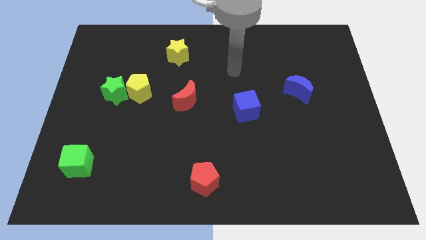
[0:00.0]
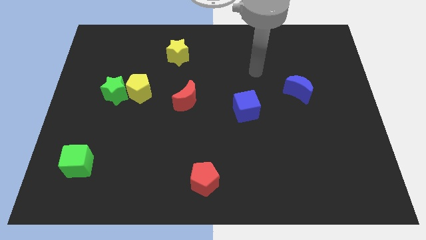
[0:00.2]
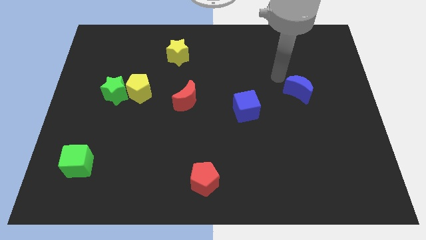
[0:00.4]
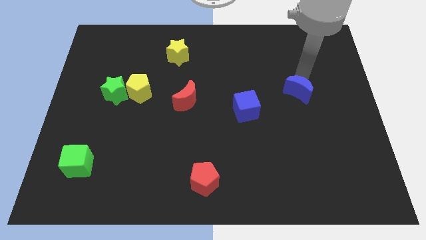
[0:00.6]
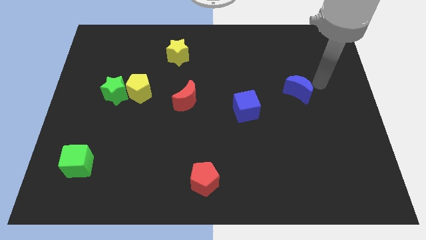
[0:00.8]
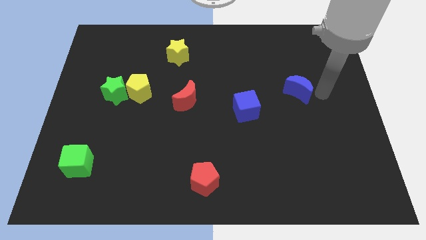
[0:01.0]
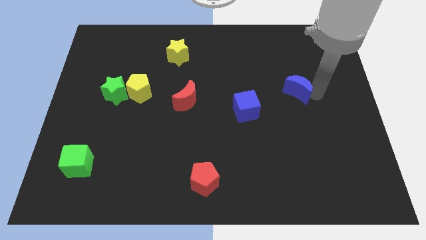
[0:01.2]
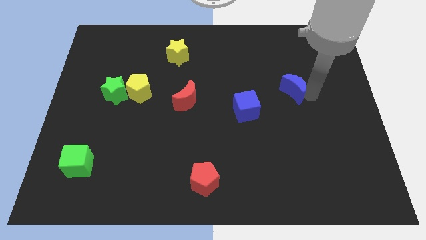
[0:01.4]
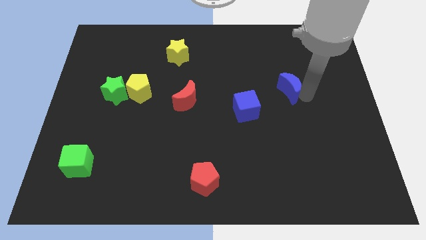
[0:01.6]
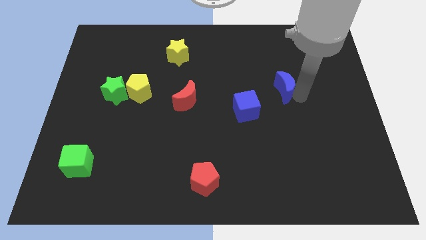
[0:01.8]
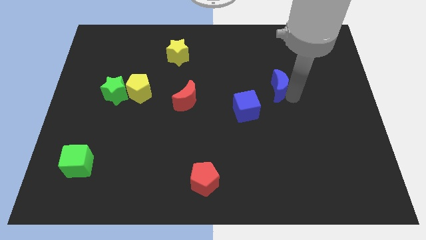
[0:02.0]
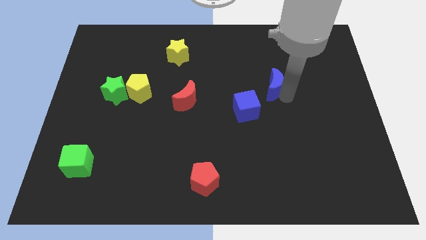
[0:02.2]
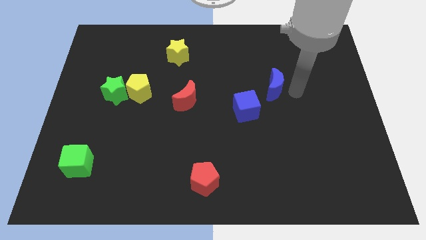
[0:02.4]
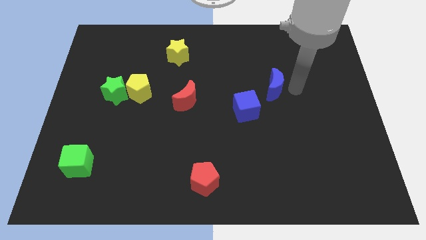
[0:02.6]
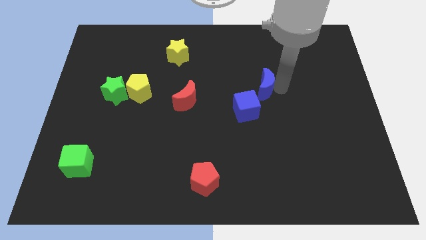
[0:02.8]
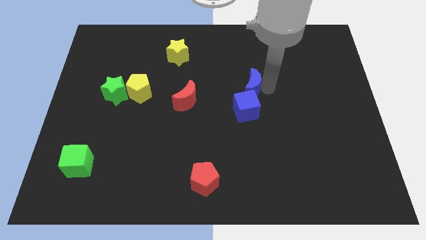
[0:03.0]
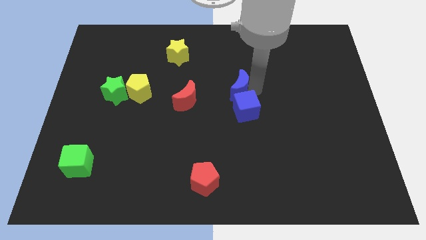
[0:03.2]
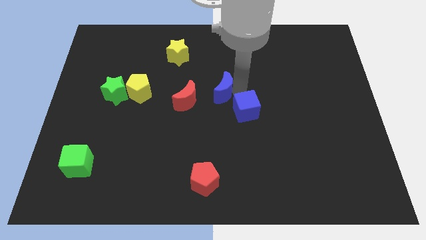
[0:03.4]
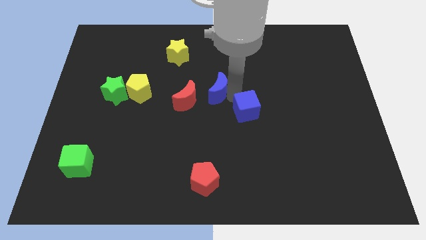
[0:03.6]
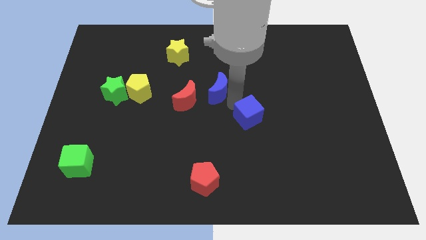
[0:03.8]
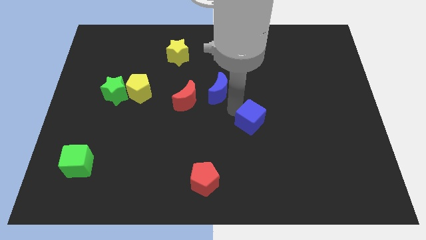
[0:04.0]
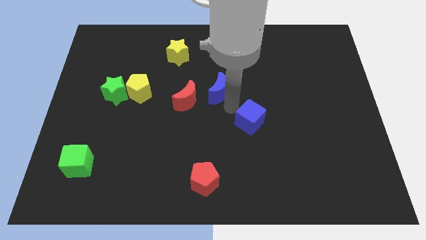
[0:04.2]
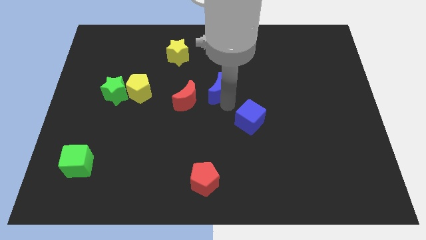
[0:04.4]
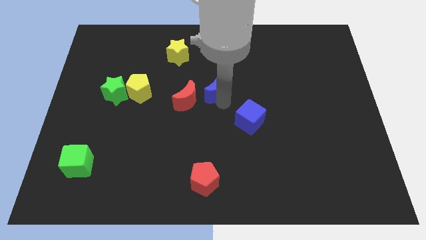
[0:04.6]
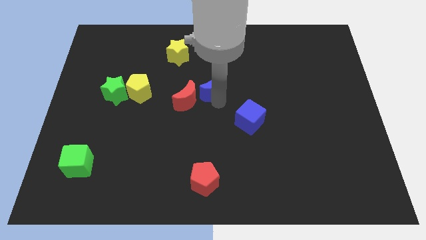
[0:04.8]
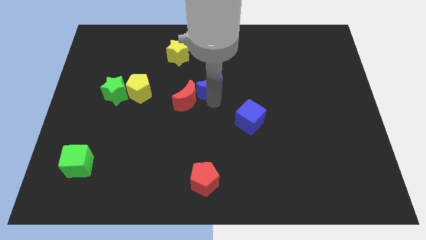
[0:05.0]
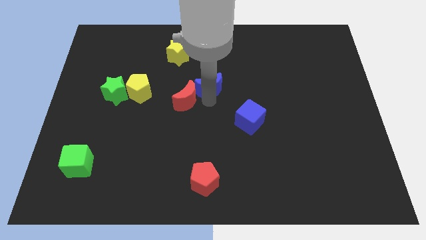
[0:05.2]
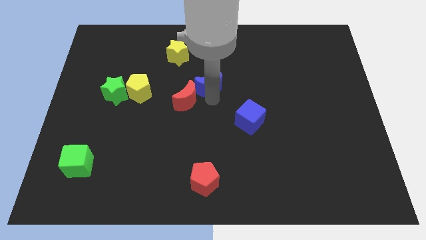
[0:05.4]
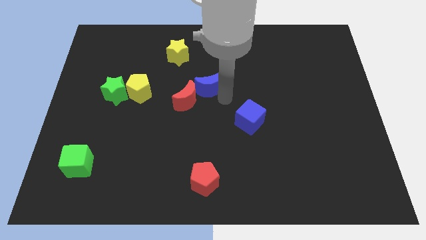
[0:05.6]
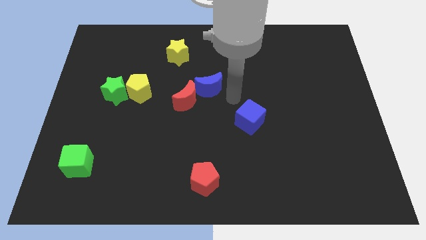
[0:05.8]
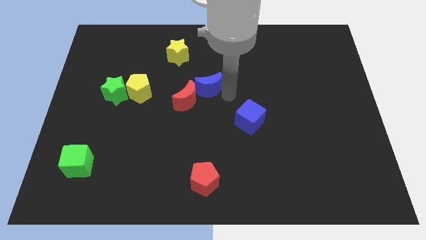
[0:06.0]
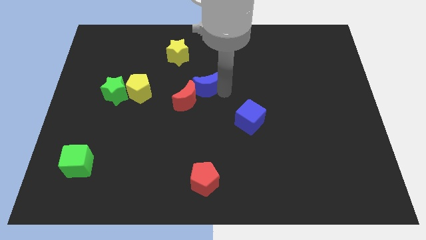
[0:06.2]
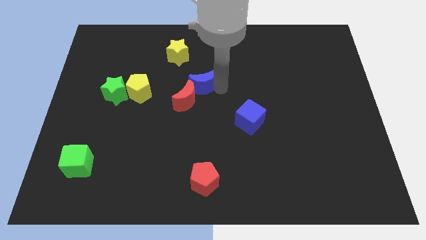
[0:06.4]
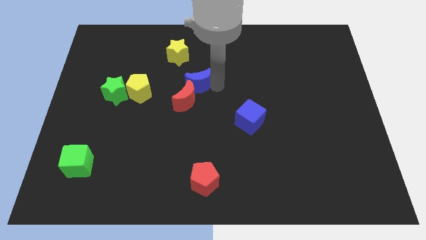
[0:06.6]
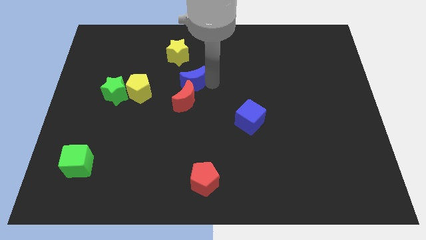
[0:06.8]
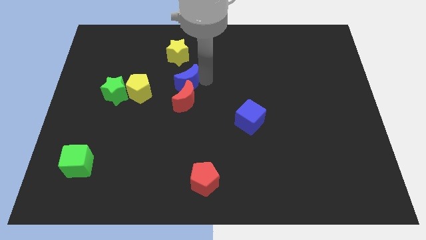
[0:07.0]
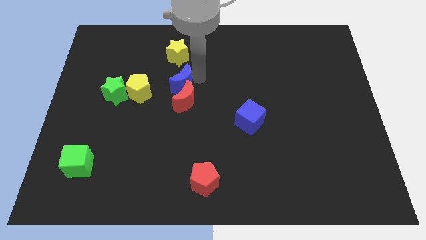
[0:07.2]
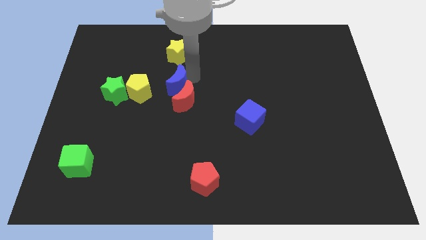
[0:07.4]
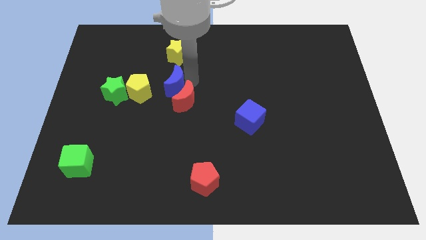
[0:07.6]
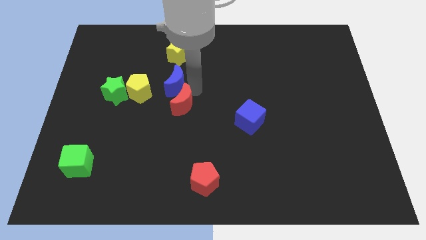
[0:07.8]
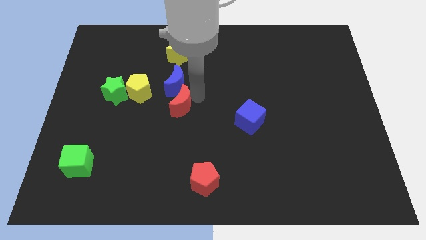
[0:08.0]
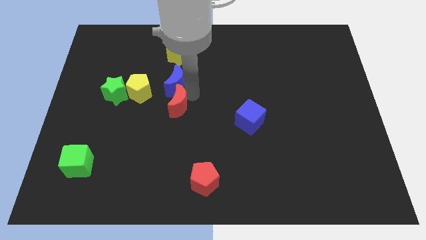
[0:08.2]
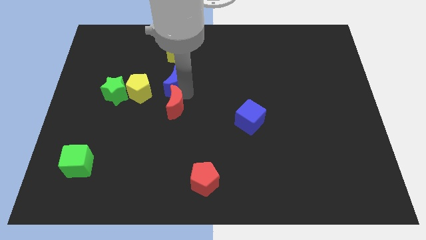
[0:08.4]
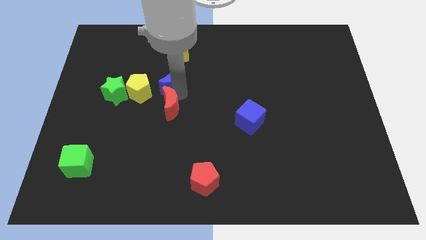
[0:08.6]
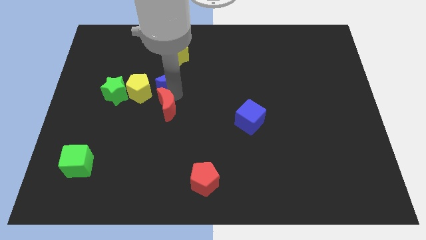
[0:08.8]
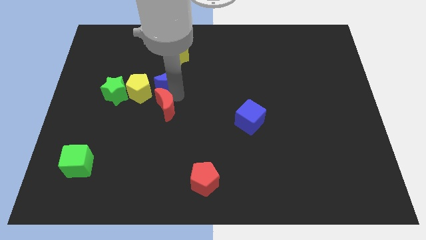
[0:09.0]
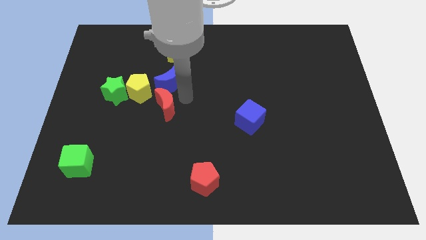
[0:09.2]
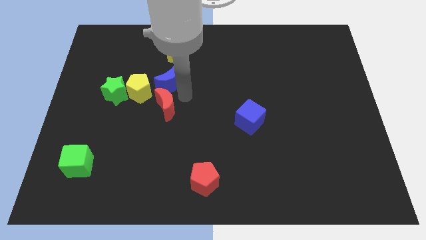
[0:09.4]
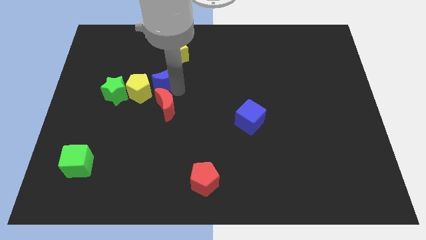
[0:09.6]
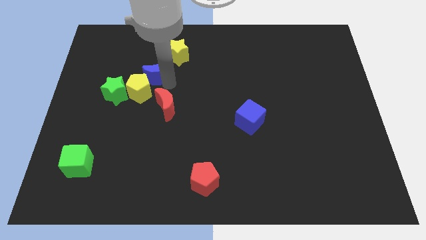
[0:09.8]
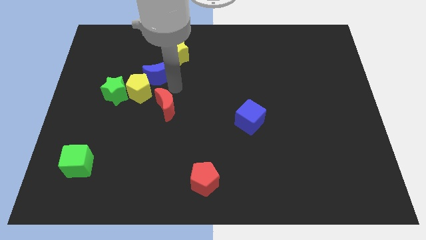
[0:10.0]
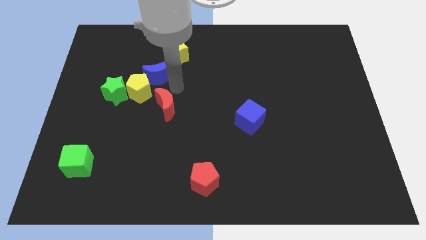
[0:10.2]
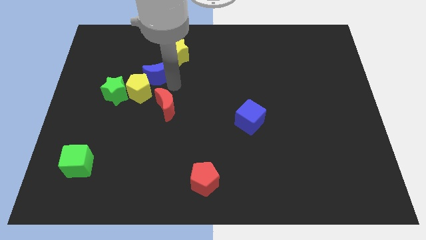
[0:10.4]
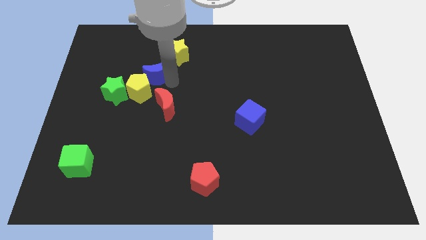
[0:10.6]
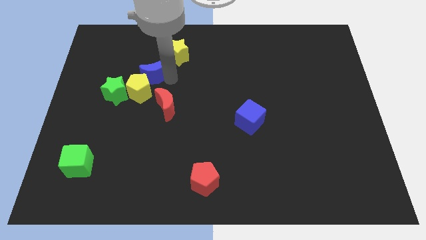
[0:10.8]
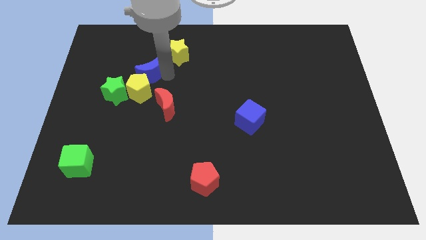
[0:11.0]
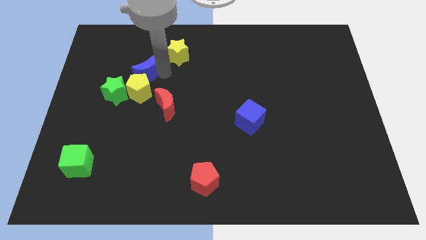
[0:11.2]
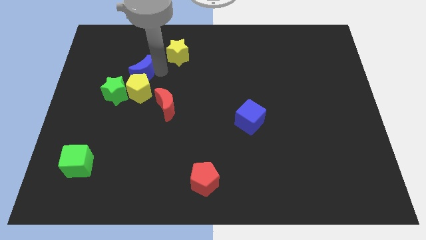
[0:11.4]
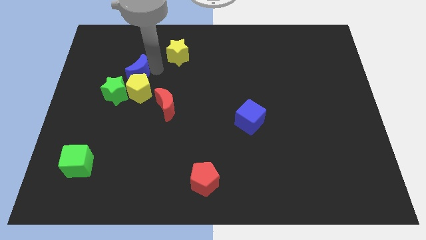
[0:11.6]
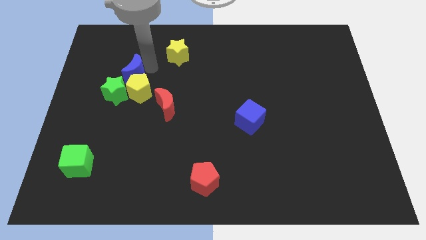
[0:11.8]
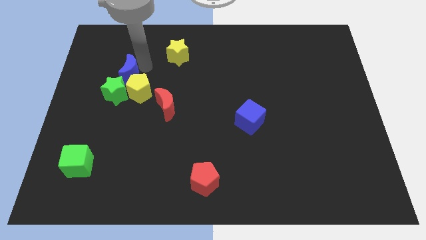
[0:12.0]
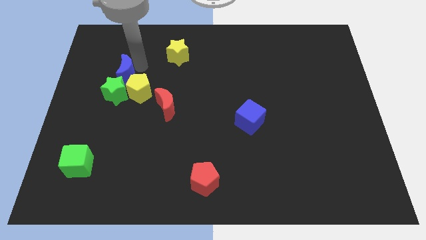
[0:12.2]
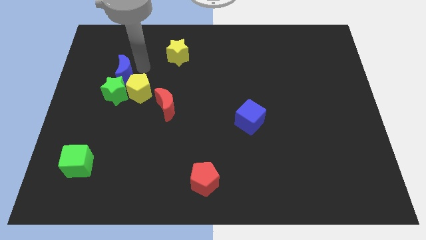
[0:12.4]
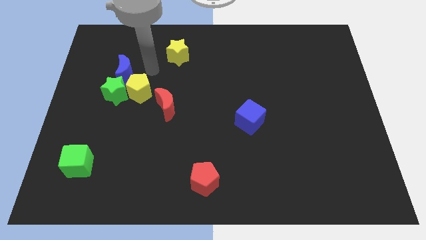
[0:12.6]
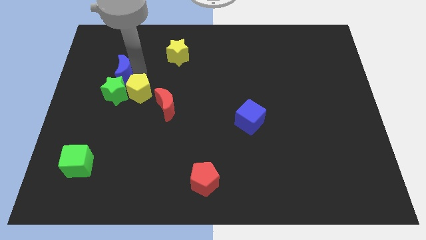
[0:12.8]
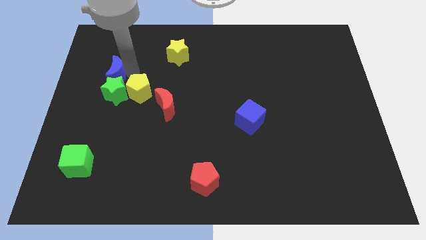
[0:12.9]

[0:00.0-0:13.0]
push the blue moon to the top left of the green star

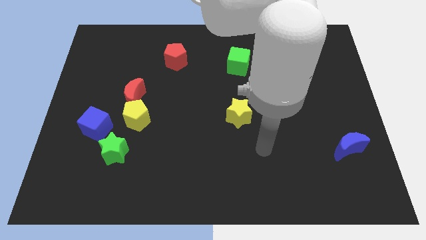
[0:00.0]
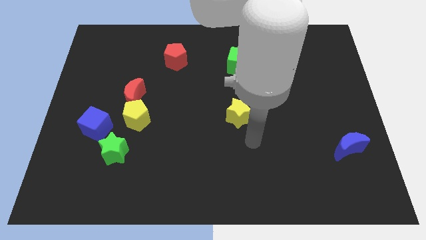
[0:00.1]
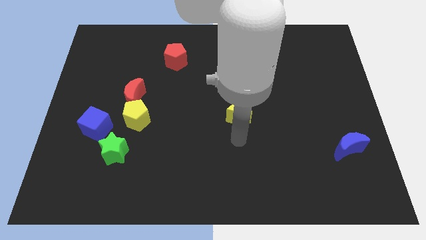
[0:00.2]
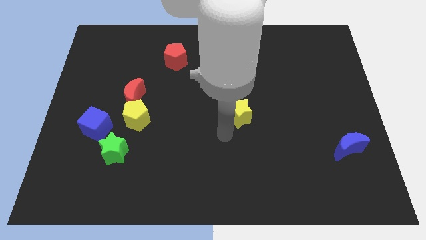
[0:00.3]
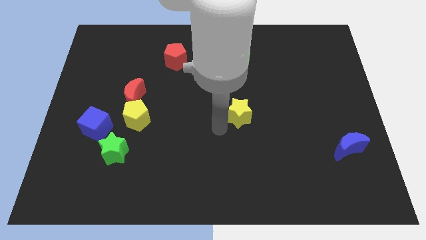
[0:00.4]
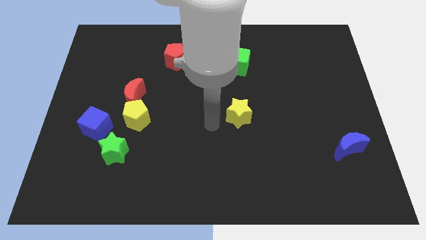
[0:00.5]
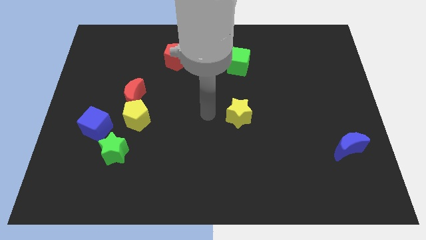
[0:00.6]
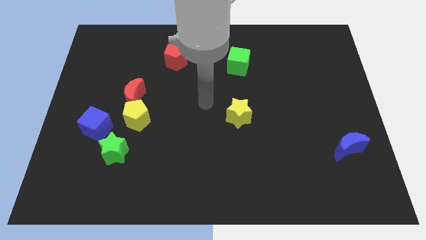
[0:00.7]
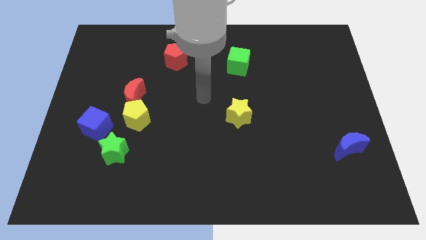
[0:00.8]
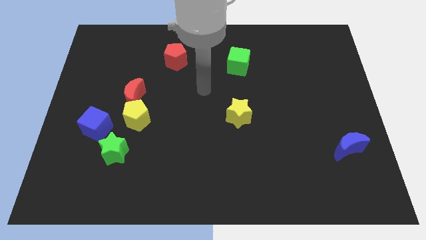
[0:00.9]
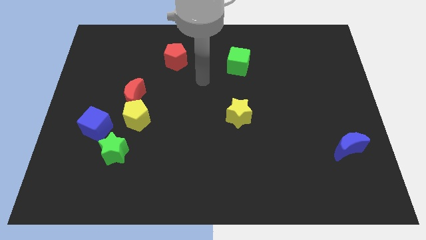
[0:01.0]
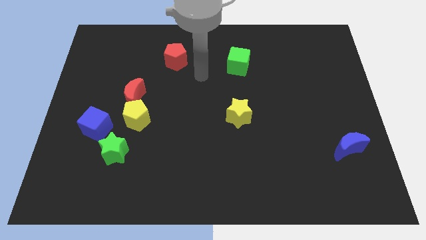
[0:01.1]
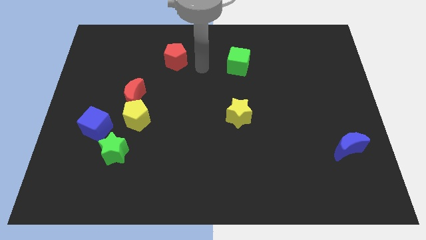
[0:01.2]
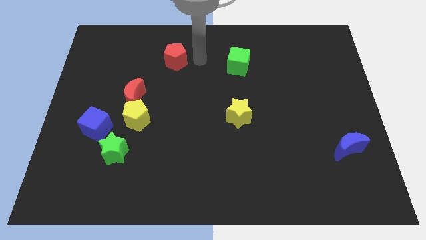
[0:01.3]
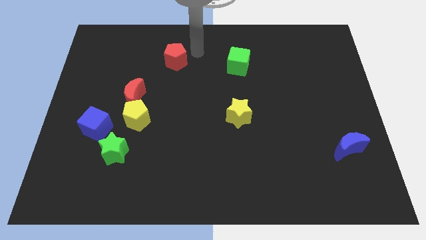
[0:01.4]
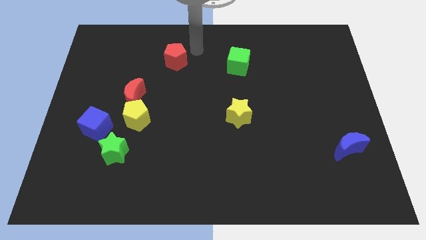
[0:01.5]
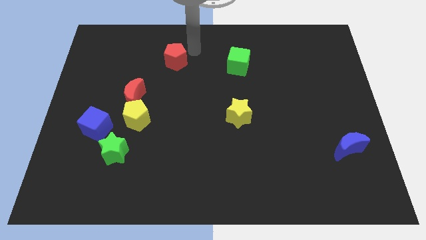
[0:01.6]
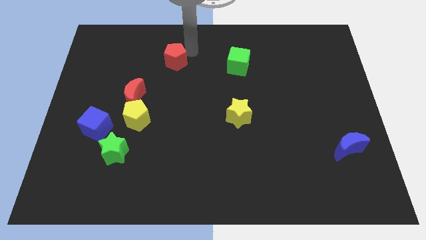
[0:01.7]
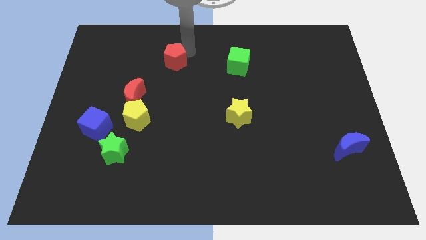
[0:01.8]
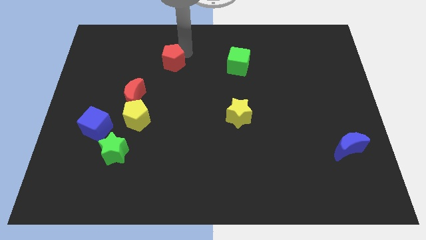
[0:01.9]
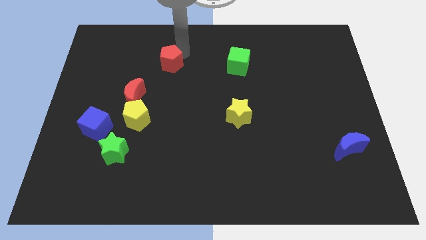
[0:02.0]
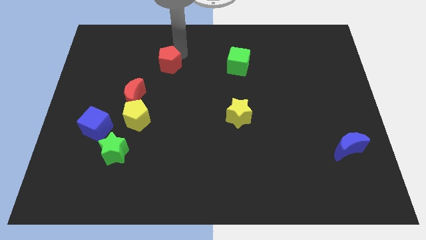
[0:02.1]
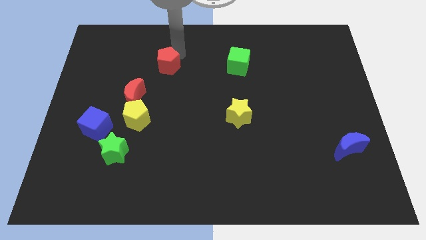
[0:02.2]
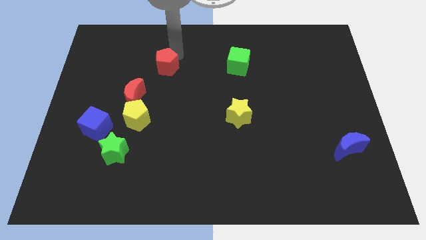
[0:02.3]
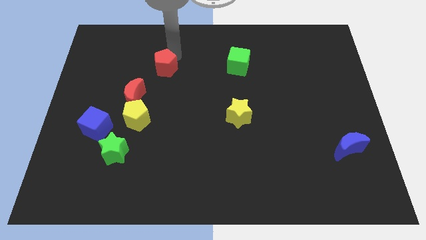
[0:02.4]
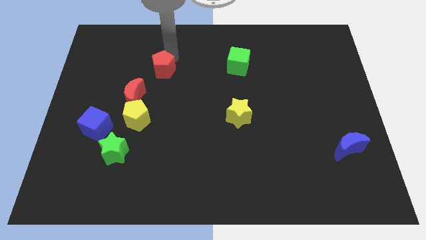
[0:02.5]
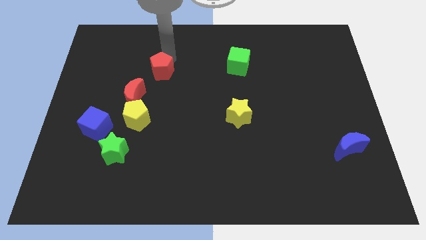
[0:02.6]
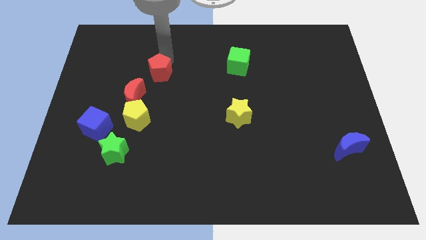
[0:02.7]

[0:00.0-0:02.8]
slide the red pentagon to the top of the yellow pentagon
